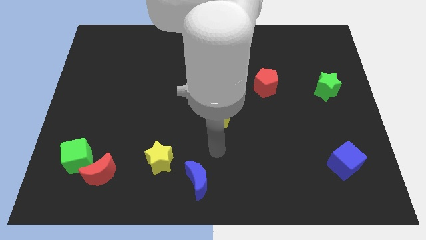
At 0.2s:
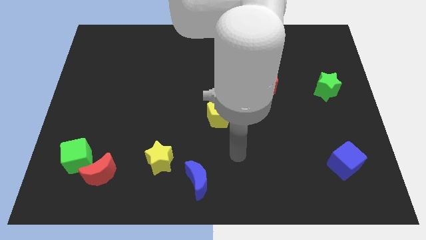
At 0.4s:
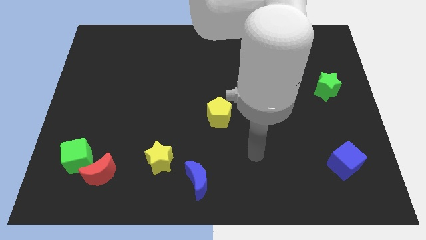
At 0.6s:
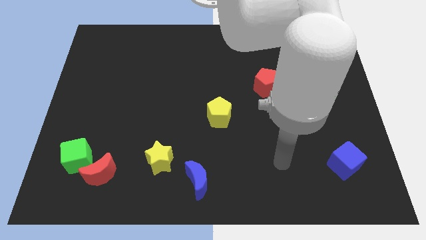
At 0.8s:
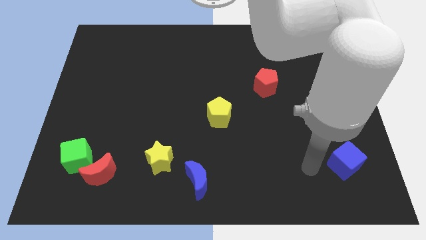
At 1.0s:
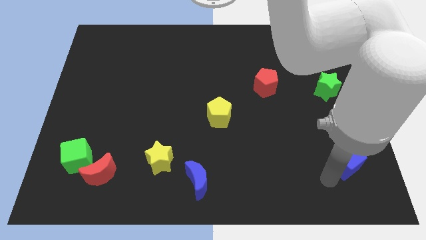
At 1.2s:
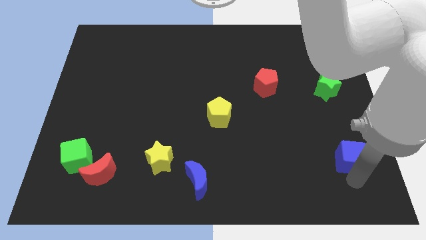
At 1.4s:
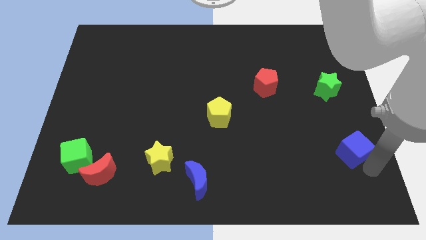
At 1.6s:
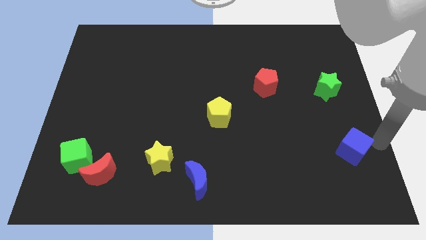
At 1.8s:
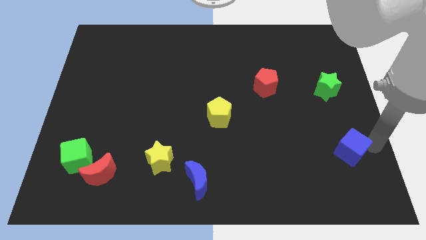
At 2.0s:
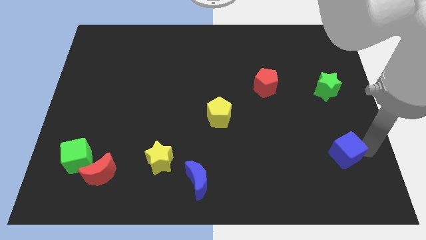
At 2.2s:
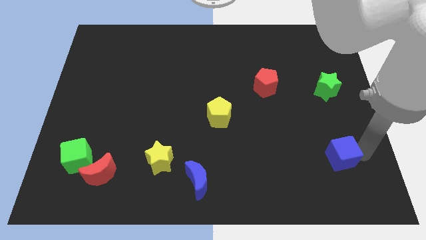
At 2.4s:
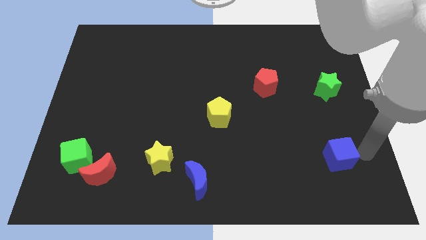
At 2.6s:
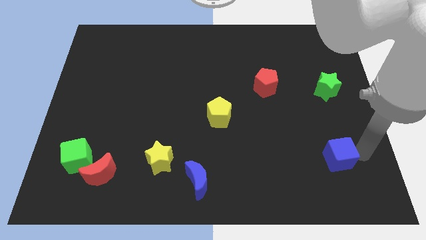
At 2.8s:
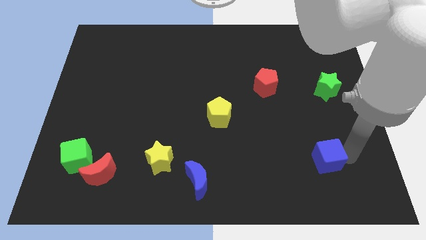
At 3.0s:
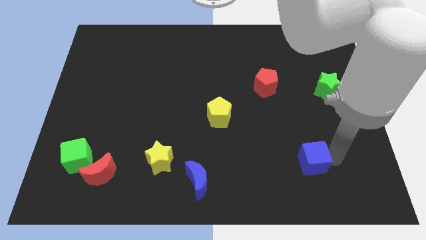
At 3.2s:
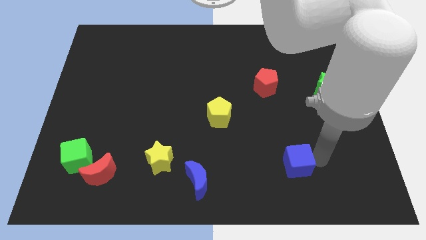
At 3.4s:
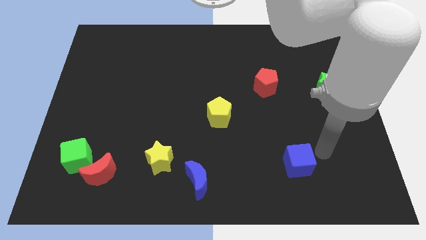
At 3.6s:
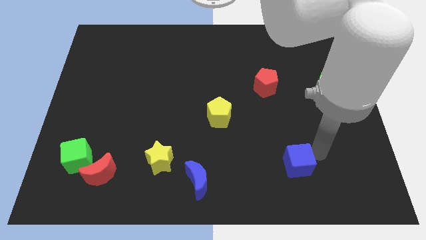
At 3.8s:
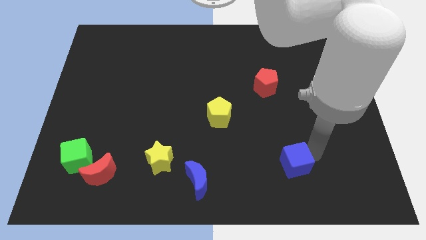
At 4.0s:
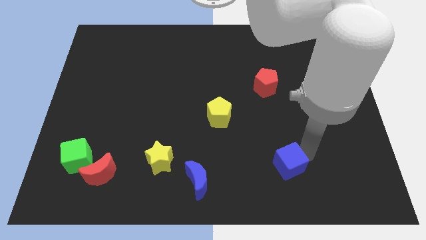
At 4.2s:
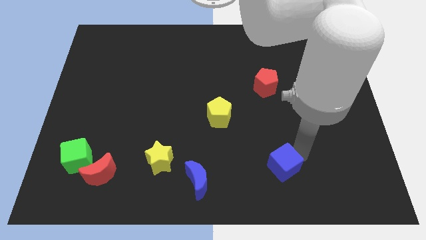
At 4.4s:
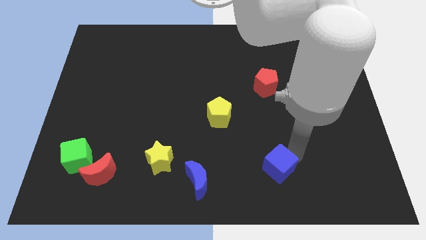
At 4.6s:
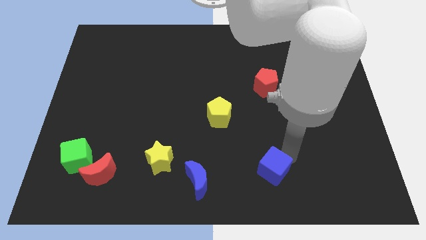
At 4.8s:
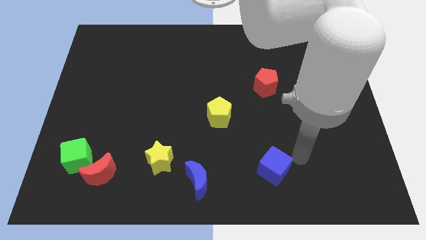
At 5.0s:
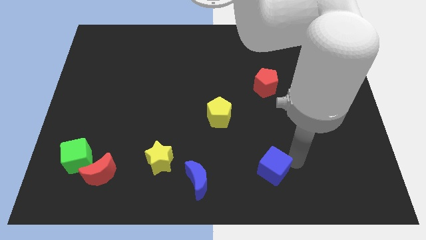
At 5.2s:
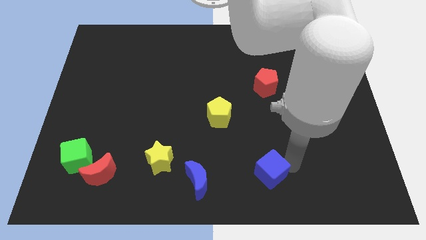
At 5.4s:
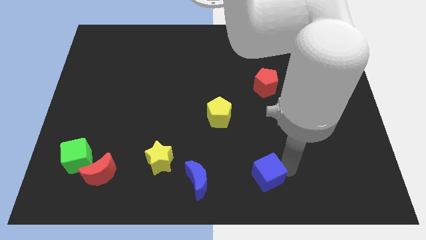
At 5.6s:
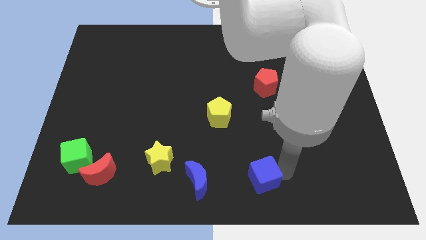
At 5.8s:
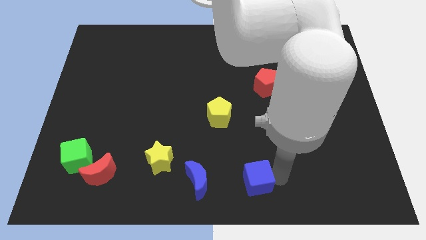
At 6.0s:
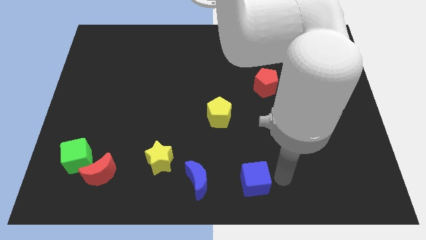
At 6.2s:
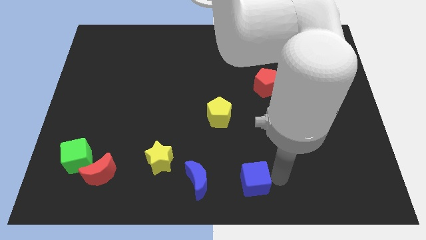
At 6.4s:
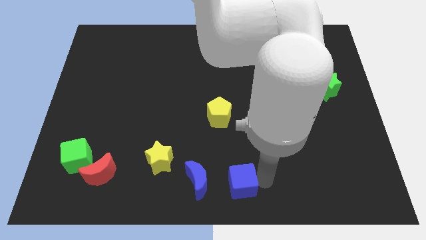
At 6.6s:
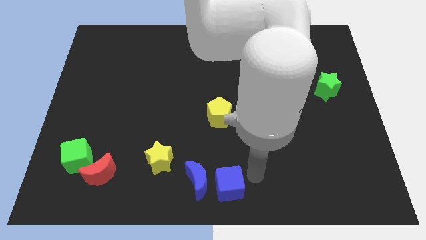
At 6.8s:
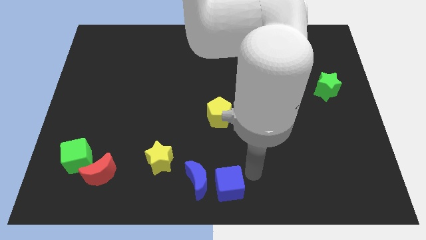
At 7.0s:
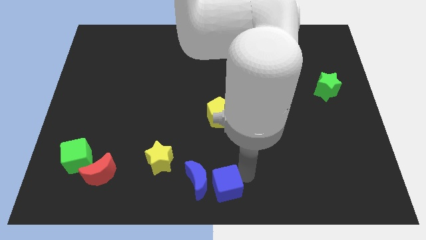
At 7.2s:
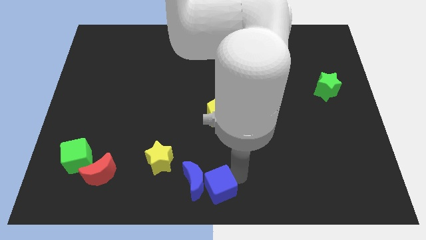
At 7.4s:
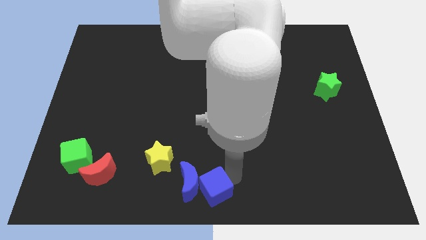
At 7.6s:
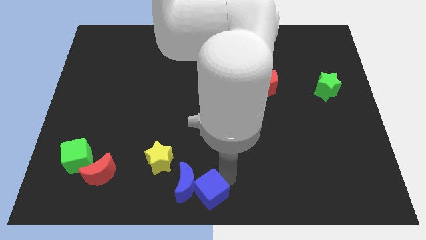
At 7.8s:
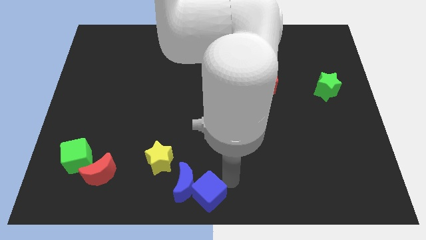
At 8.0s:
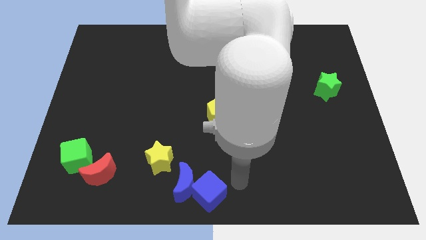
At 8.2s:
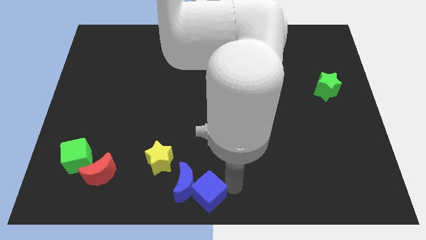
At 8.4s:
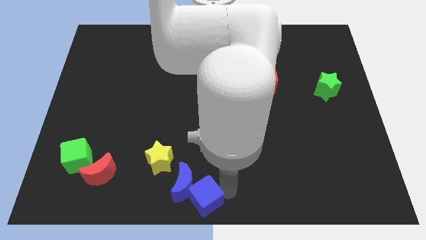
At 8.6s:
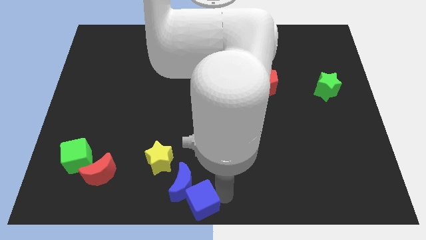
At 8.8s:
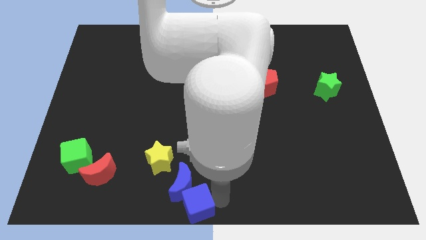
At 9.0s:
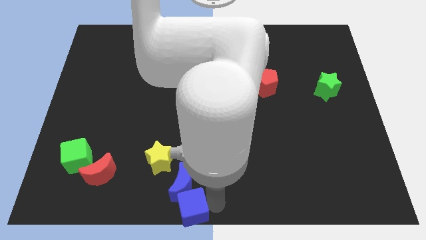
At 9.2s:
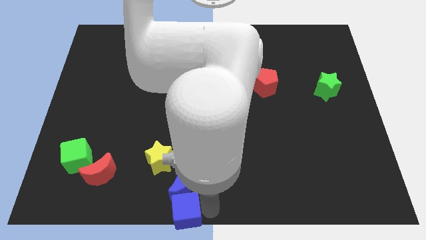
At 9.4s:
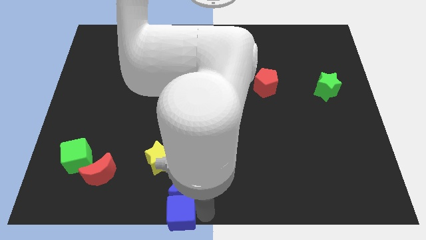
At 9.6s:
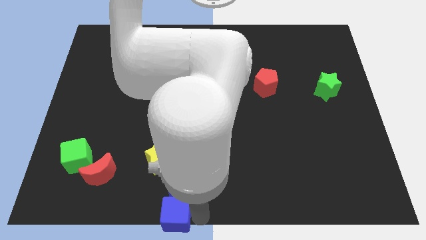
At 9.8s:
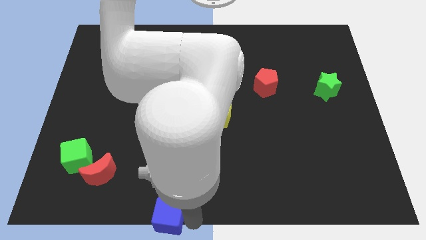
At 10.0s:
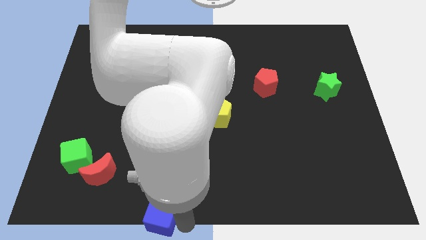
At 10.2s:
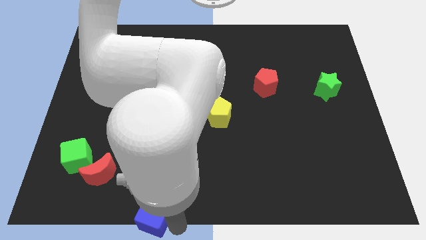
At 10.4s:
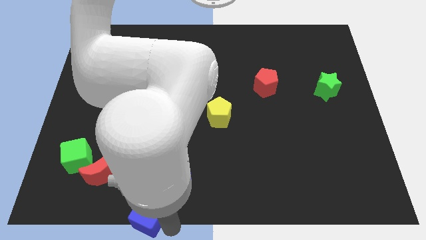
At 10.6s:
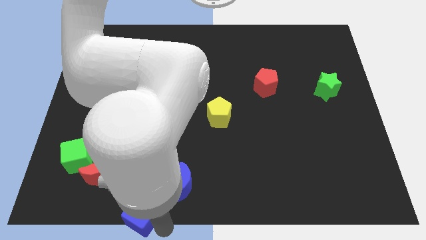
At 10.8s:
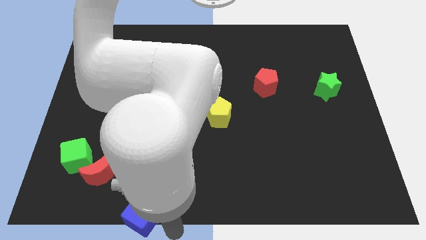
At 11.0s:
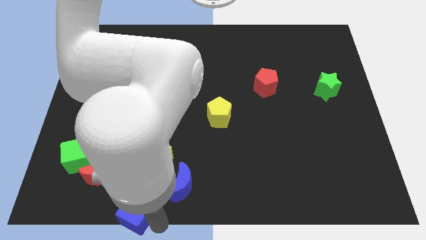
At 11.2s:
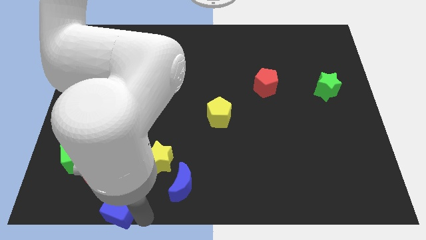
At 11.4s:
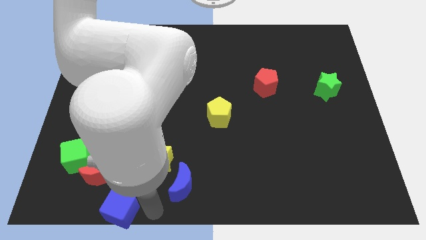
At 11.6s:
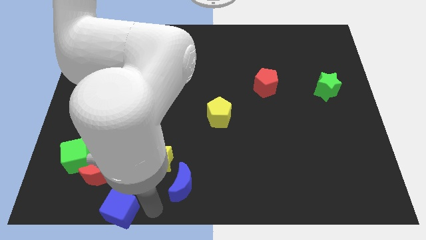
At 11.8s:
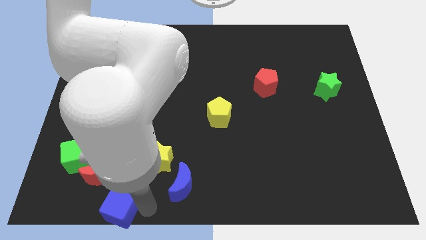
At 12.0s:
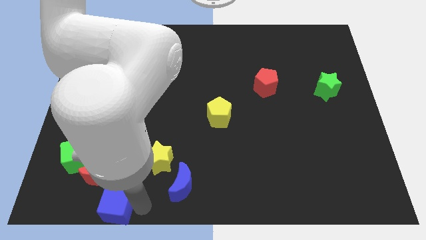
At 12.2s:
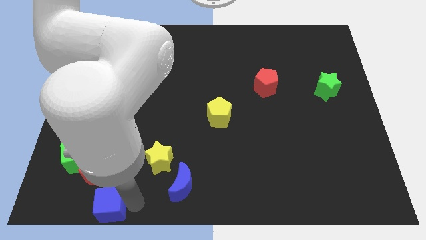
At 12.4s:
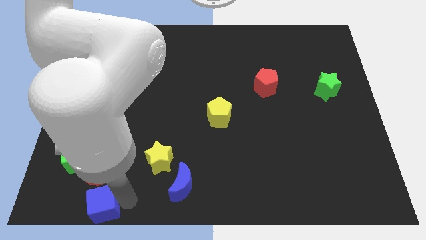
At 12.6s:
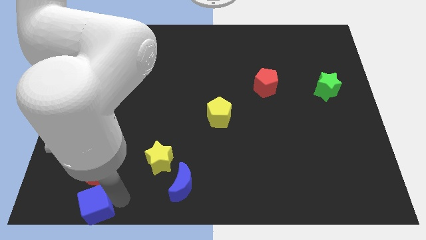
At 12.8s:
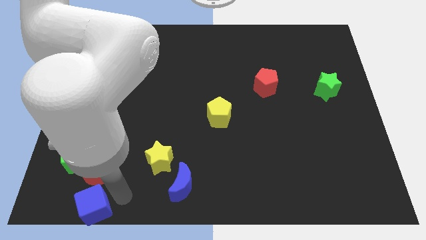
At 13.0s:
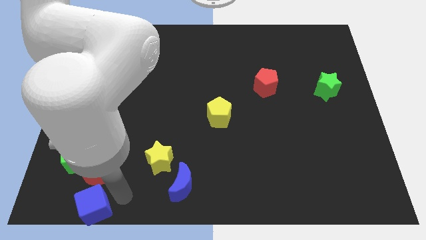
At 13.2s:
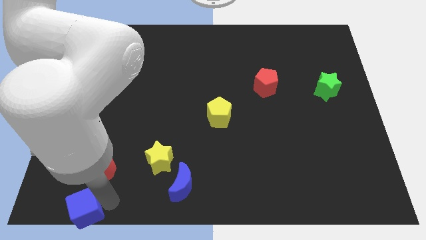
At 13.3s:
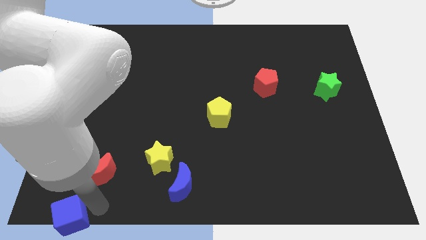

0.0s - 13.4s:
push the blue cube to the bottom left
